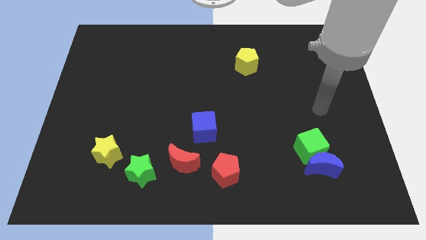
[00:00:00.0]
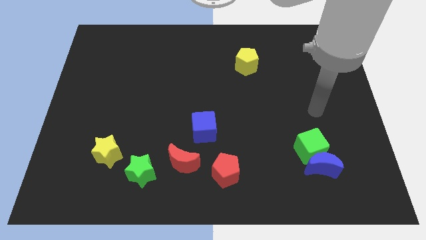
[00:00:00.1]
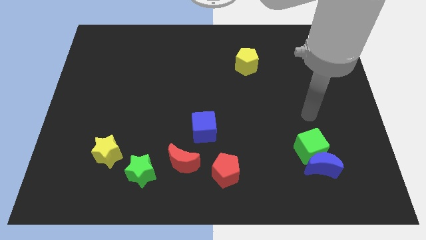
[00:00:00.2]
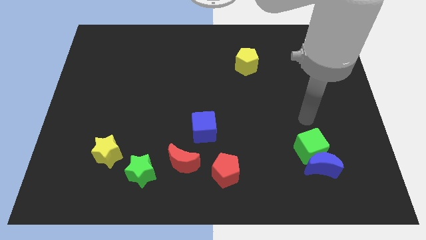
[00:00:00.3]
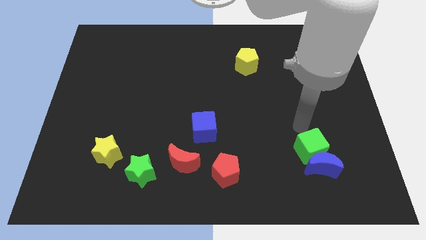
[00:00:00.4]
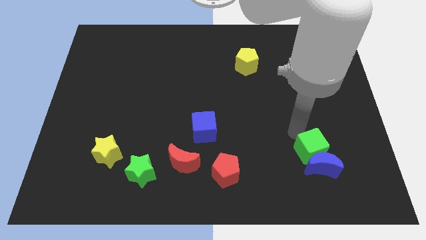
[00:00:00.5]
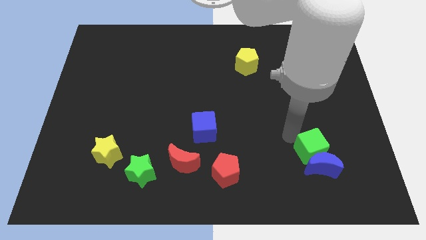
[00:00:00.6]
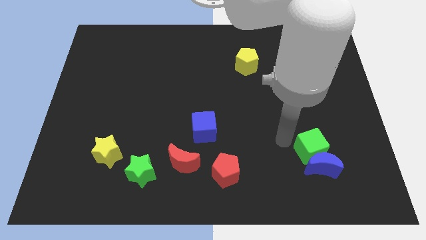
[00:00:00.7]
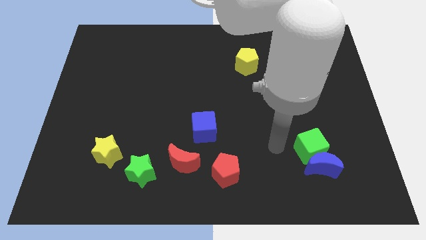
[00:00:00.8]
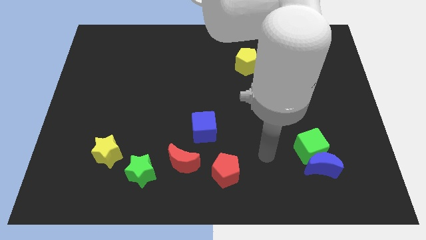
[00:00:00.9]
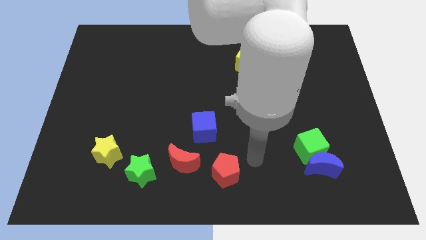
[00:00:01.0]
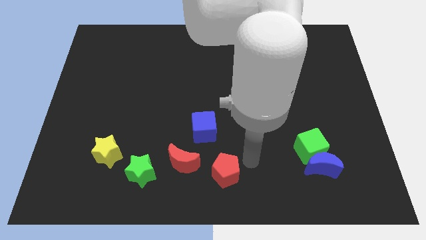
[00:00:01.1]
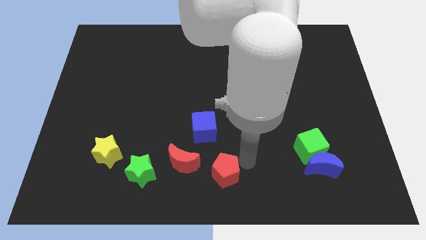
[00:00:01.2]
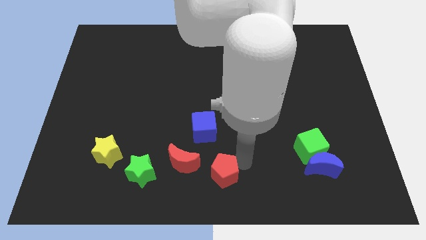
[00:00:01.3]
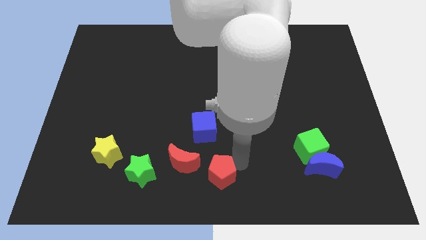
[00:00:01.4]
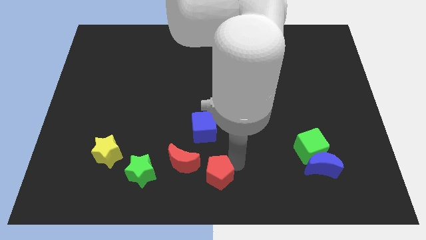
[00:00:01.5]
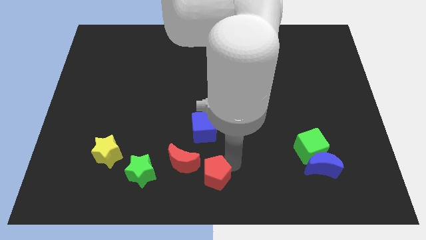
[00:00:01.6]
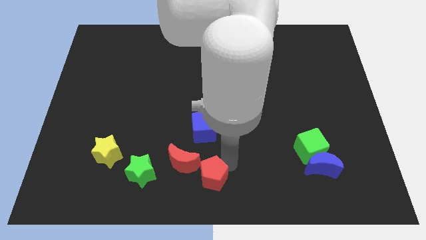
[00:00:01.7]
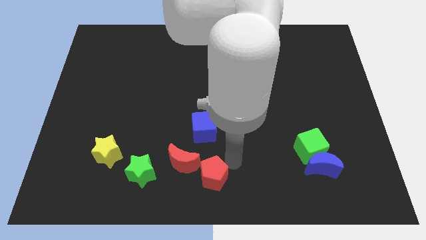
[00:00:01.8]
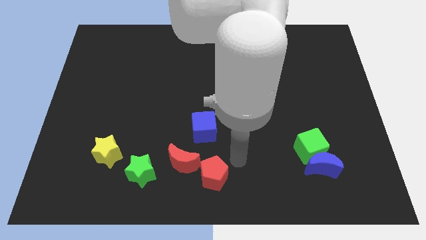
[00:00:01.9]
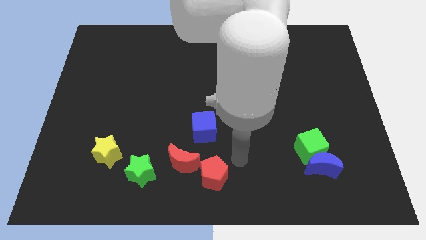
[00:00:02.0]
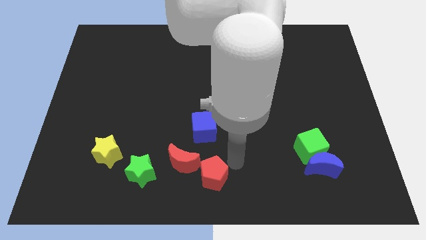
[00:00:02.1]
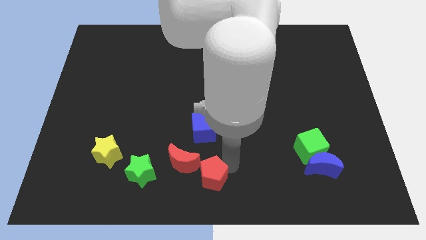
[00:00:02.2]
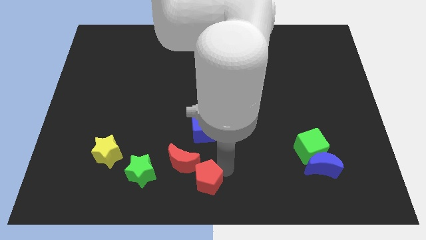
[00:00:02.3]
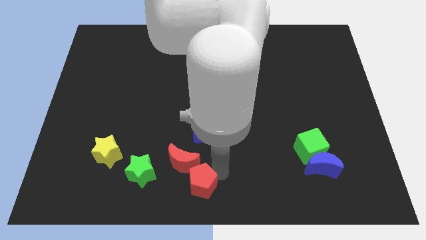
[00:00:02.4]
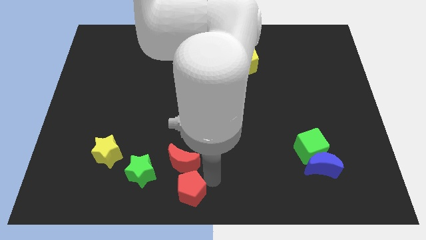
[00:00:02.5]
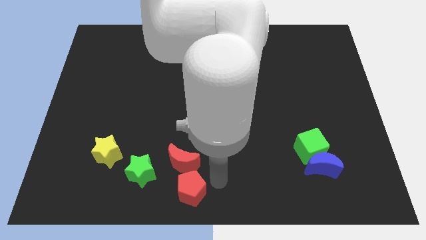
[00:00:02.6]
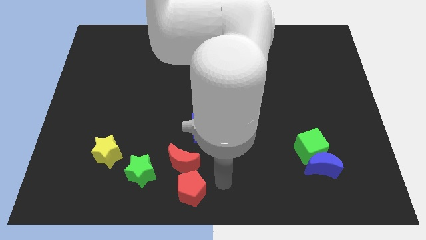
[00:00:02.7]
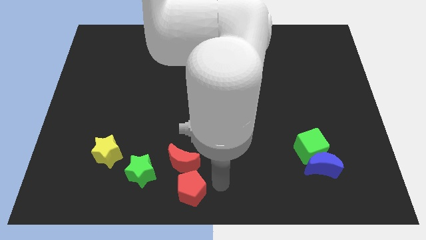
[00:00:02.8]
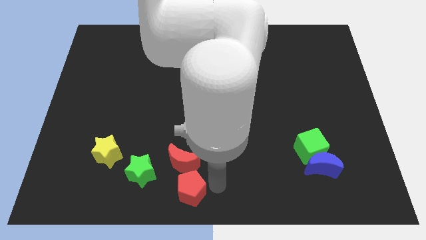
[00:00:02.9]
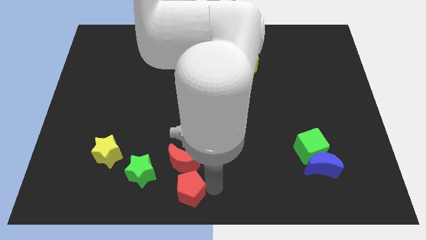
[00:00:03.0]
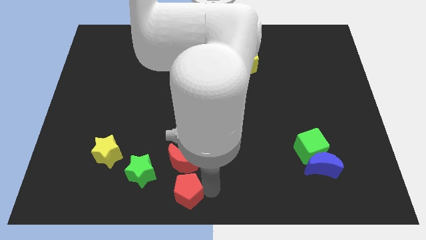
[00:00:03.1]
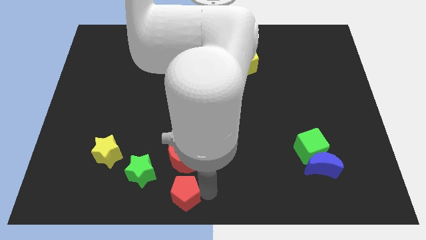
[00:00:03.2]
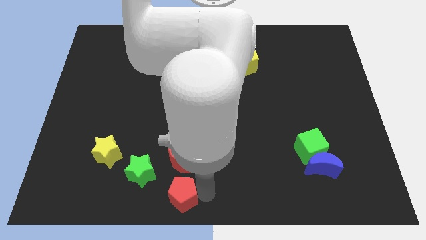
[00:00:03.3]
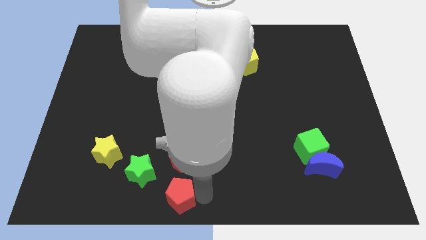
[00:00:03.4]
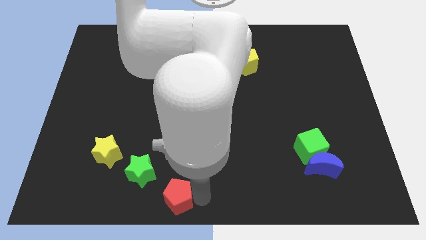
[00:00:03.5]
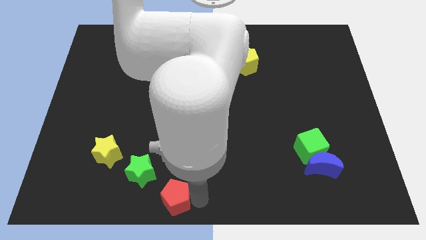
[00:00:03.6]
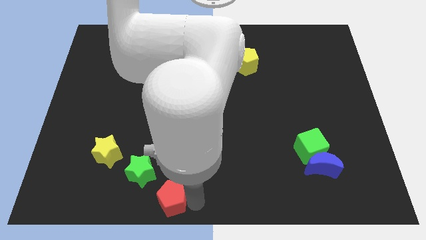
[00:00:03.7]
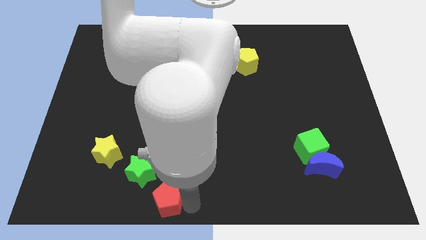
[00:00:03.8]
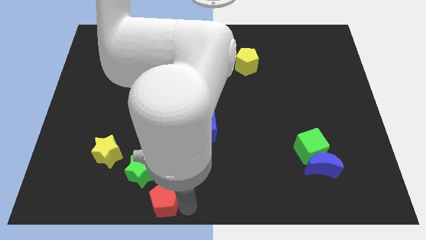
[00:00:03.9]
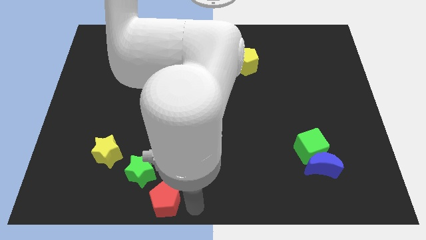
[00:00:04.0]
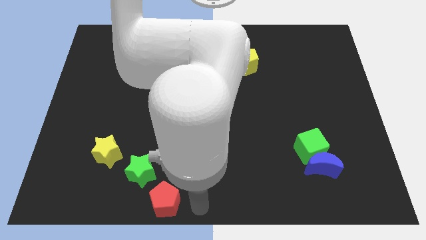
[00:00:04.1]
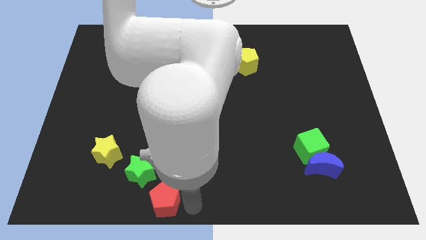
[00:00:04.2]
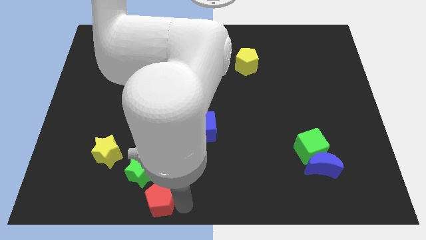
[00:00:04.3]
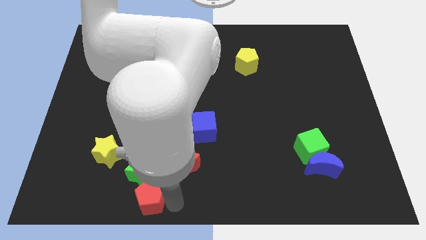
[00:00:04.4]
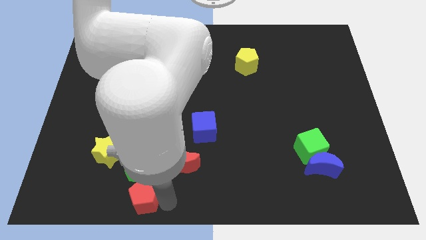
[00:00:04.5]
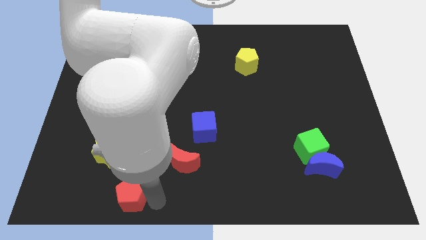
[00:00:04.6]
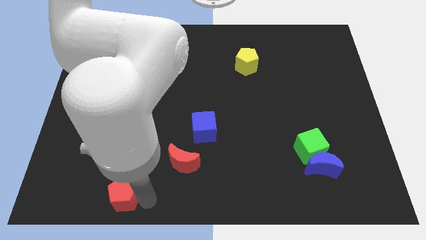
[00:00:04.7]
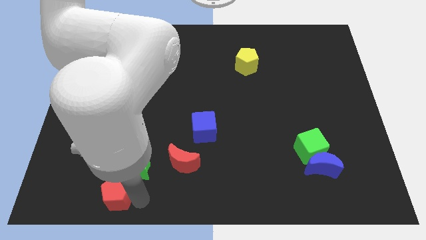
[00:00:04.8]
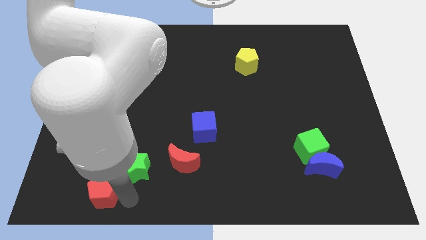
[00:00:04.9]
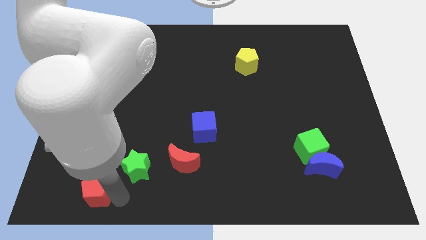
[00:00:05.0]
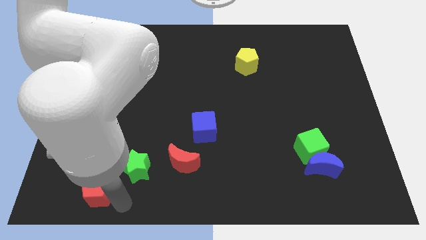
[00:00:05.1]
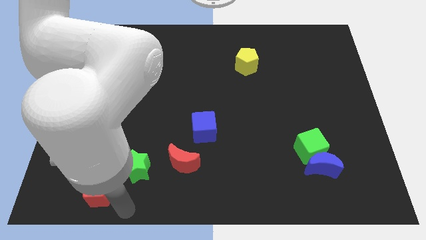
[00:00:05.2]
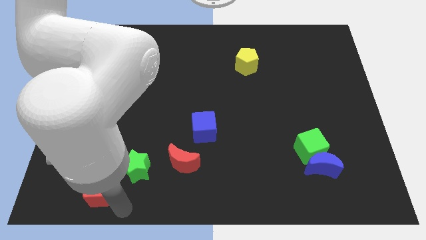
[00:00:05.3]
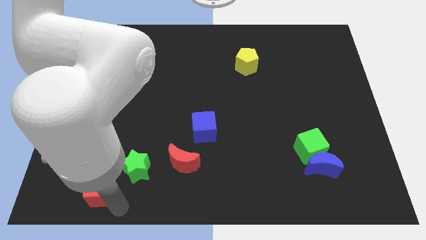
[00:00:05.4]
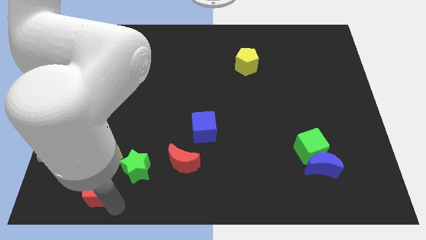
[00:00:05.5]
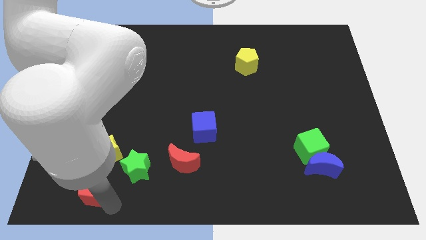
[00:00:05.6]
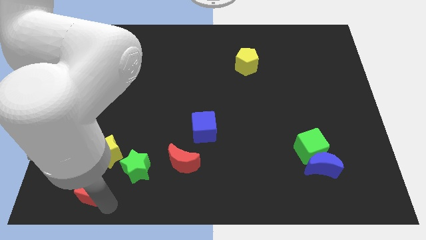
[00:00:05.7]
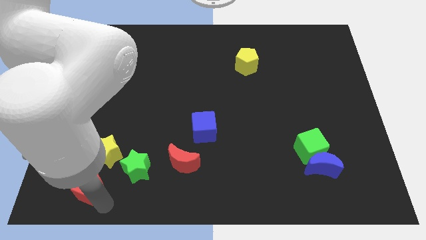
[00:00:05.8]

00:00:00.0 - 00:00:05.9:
push the red pentagon to the bottom left of the yellow star

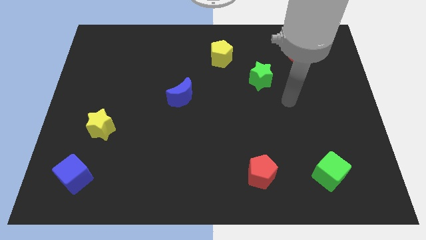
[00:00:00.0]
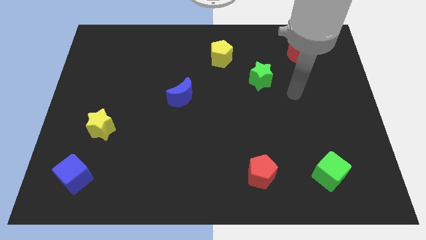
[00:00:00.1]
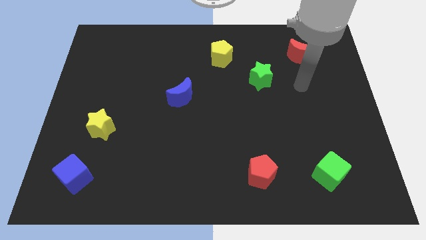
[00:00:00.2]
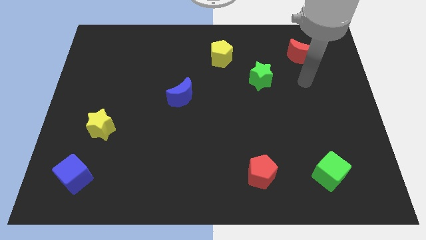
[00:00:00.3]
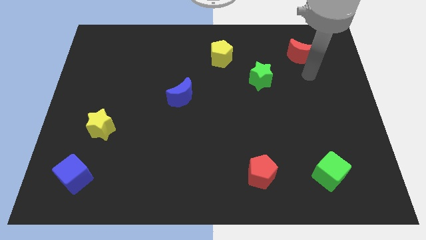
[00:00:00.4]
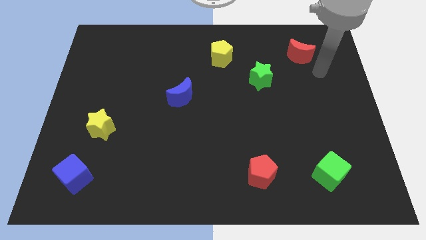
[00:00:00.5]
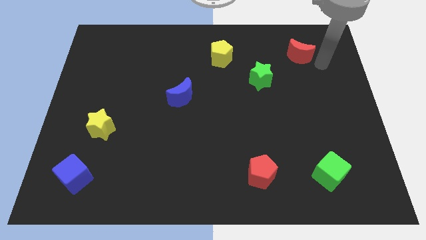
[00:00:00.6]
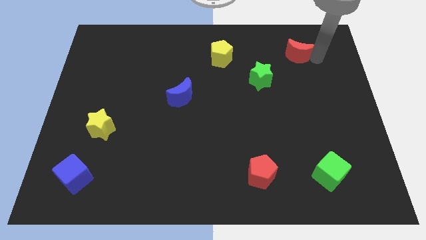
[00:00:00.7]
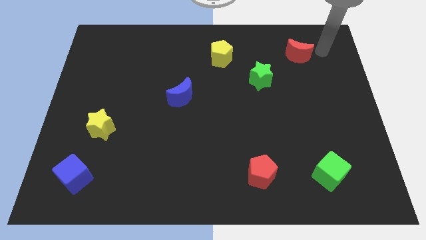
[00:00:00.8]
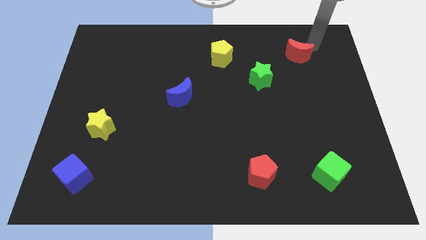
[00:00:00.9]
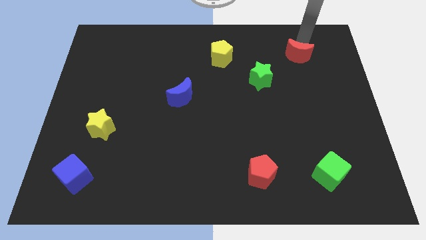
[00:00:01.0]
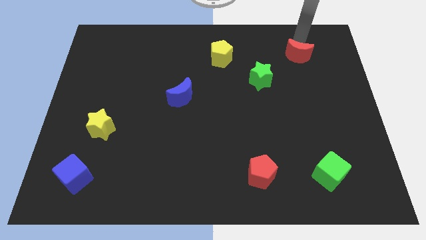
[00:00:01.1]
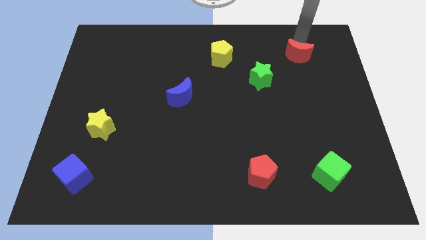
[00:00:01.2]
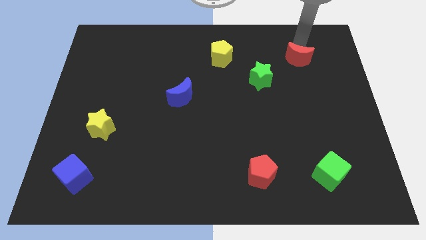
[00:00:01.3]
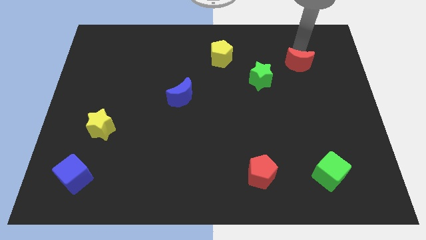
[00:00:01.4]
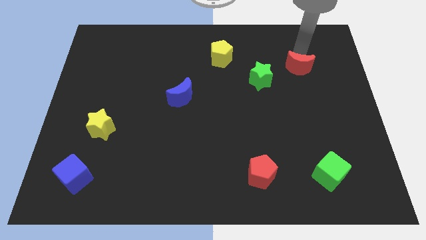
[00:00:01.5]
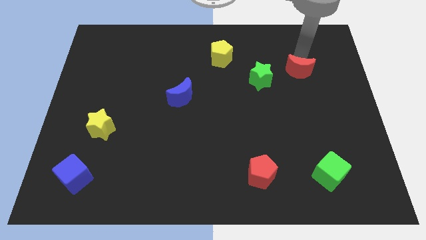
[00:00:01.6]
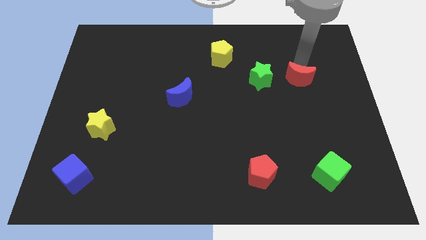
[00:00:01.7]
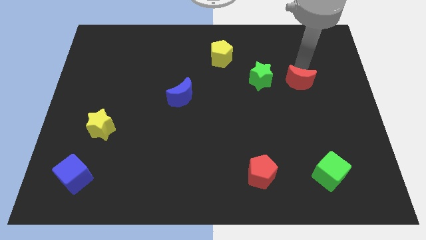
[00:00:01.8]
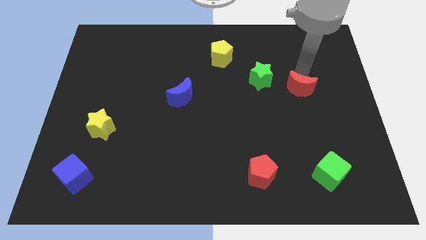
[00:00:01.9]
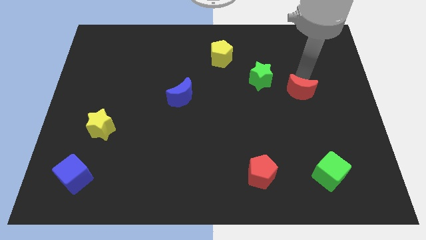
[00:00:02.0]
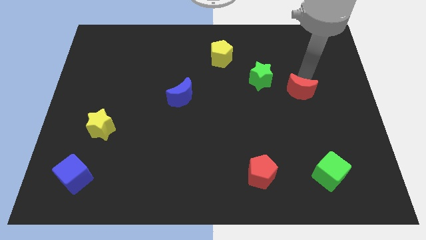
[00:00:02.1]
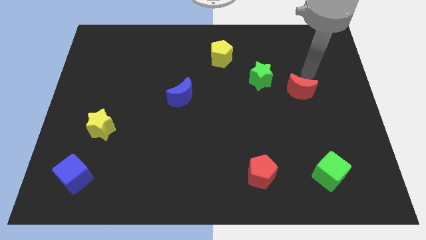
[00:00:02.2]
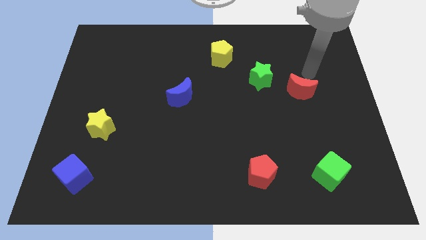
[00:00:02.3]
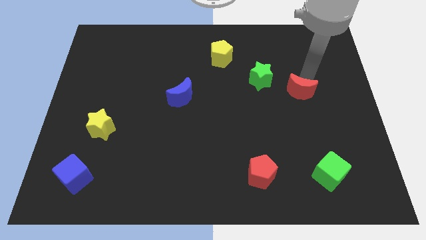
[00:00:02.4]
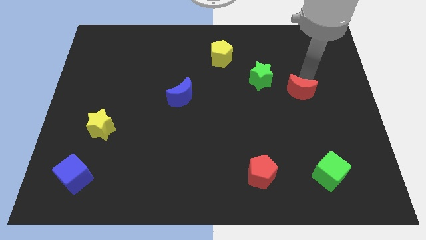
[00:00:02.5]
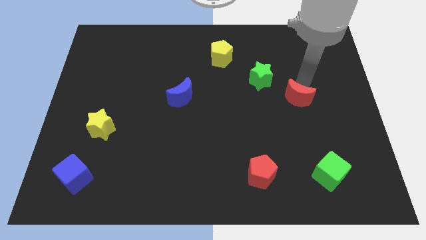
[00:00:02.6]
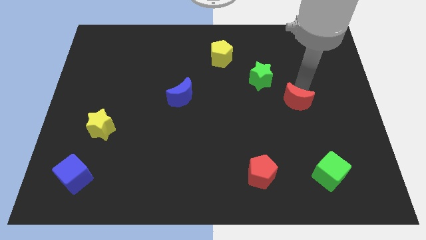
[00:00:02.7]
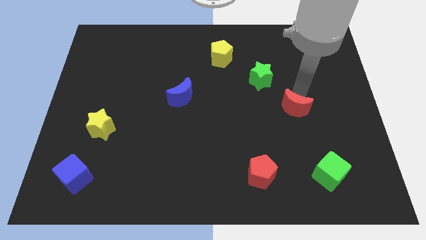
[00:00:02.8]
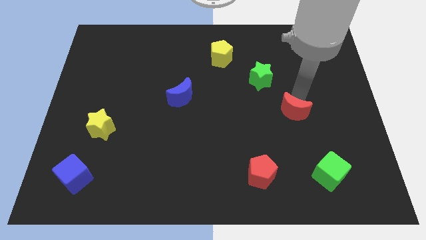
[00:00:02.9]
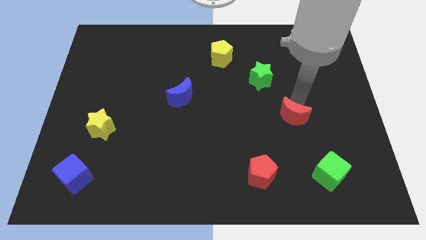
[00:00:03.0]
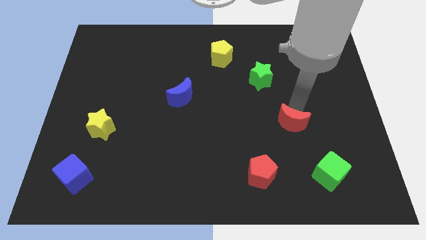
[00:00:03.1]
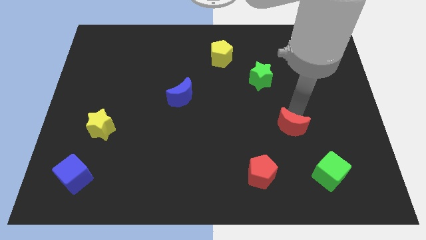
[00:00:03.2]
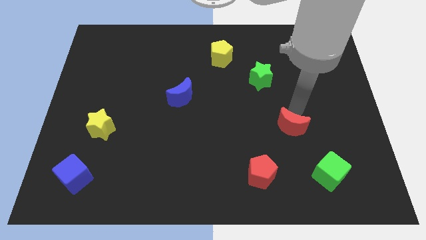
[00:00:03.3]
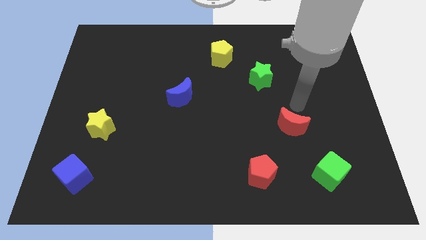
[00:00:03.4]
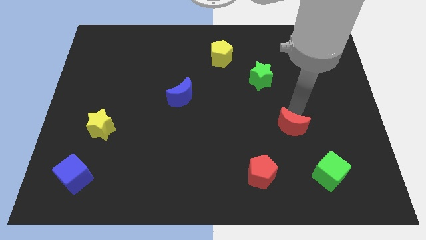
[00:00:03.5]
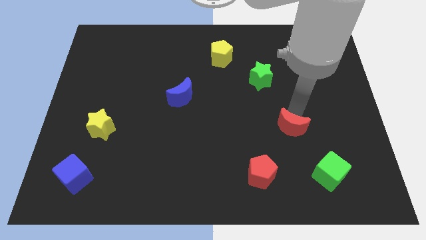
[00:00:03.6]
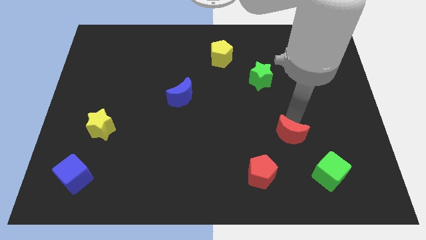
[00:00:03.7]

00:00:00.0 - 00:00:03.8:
move the red moon diagonally up and to the right of the red pentagon
